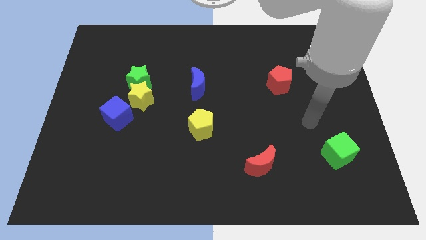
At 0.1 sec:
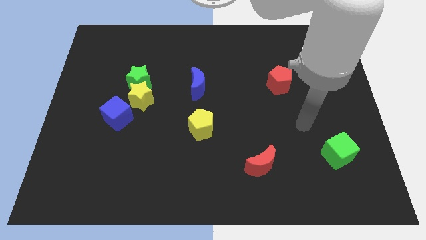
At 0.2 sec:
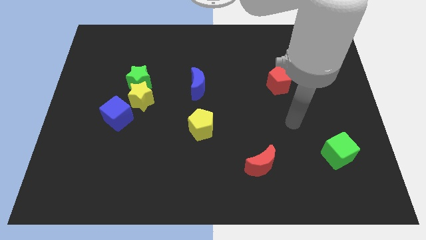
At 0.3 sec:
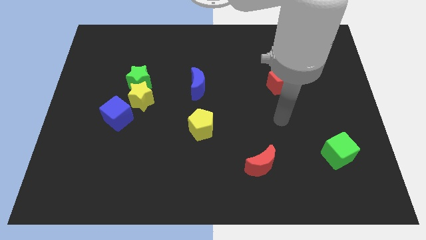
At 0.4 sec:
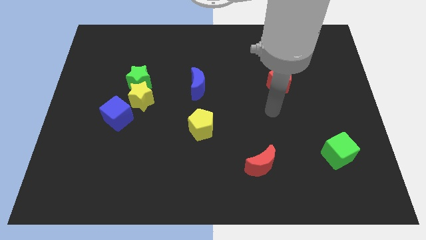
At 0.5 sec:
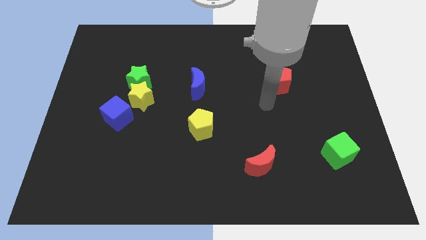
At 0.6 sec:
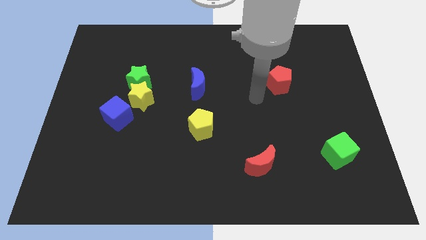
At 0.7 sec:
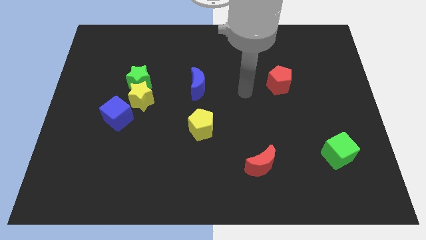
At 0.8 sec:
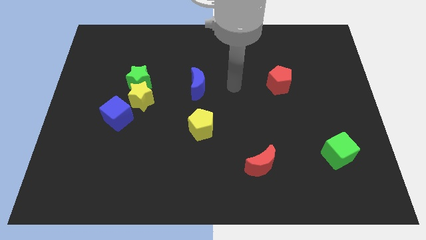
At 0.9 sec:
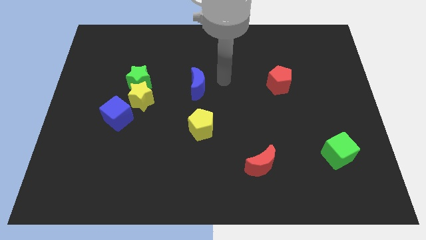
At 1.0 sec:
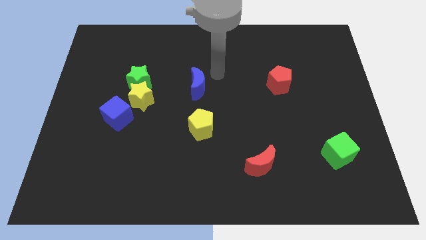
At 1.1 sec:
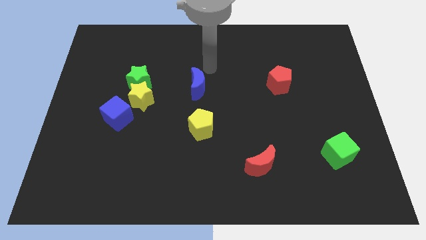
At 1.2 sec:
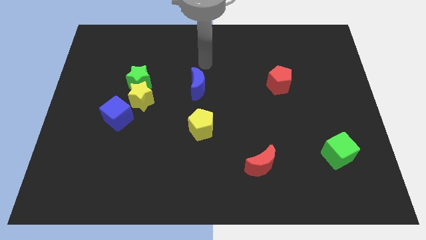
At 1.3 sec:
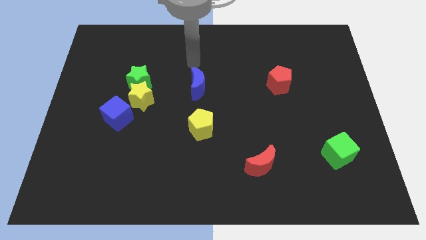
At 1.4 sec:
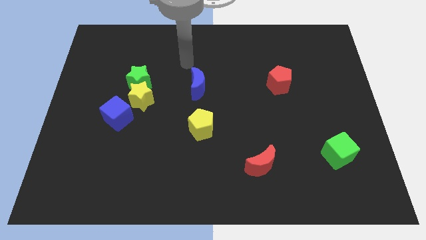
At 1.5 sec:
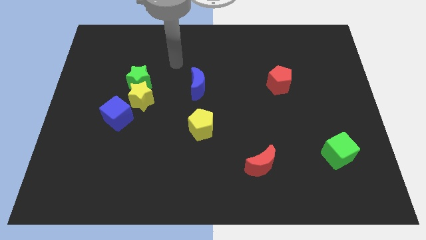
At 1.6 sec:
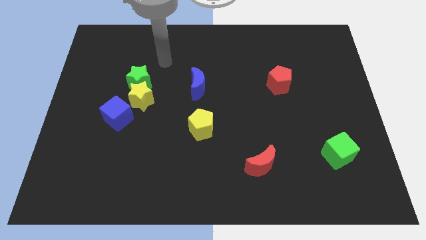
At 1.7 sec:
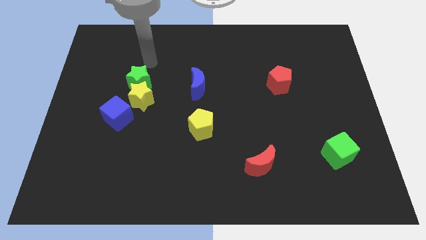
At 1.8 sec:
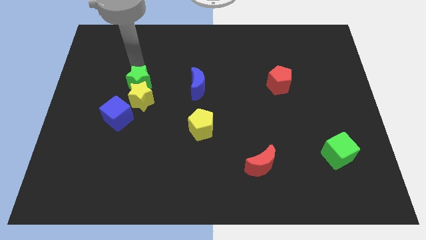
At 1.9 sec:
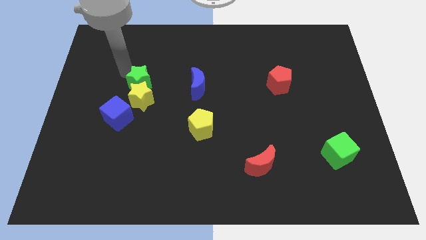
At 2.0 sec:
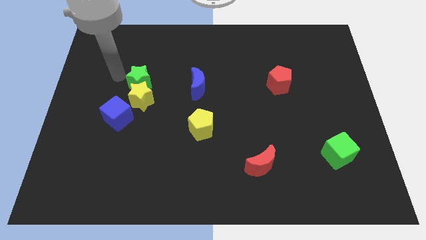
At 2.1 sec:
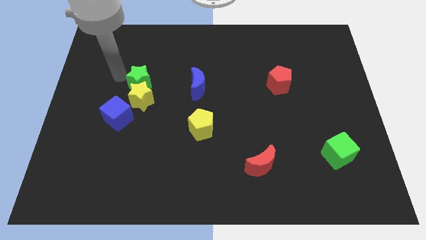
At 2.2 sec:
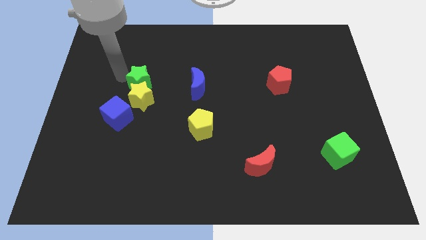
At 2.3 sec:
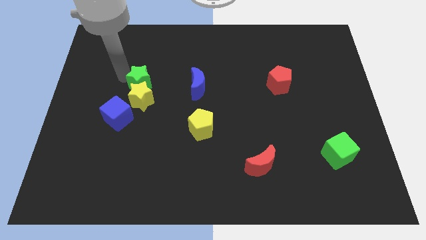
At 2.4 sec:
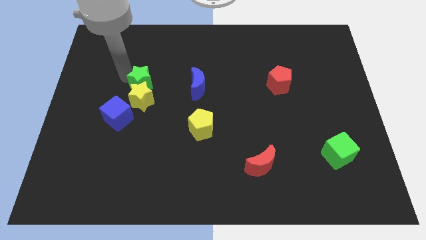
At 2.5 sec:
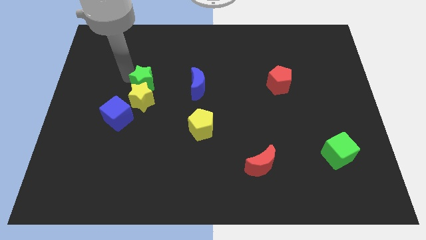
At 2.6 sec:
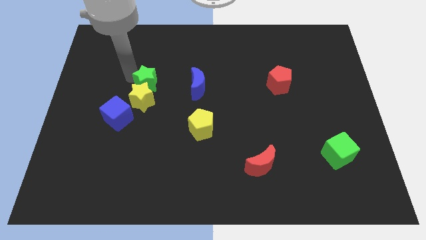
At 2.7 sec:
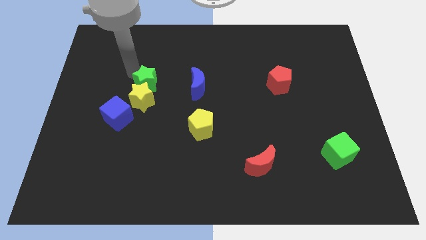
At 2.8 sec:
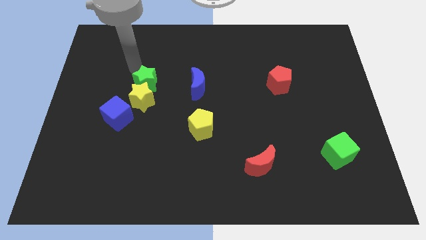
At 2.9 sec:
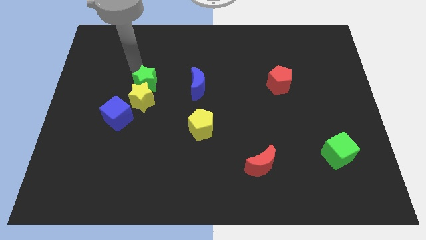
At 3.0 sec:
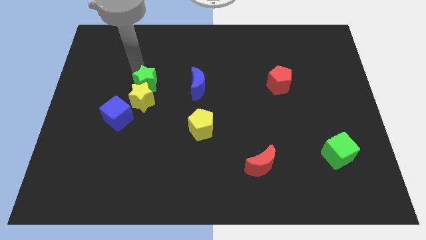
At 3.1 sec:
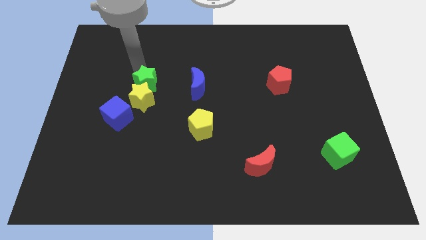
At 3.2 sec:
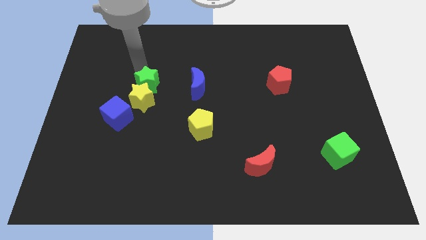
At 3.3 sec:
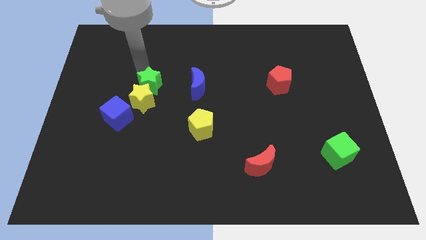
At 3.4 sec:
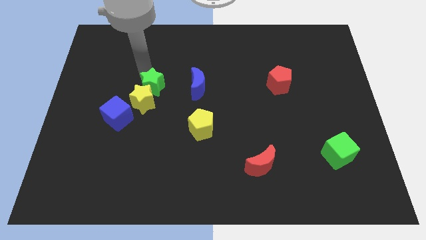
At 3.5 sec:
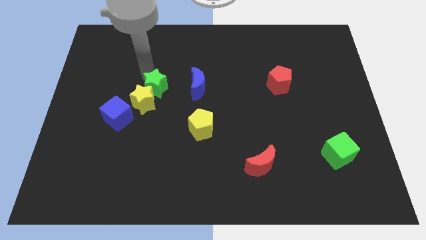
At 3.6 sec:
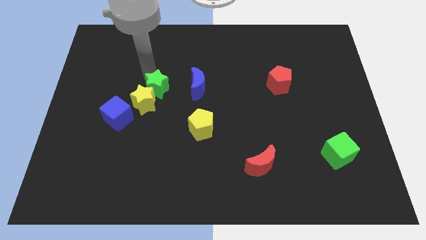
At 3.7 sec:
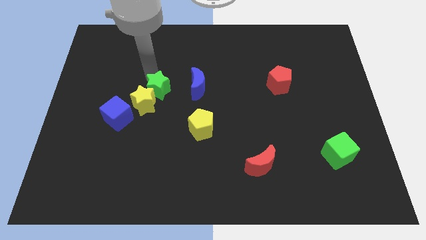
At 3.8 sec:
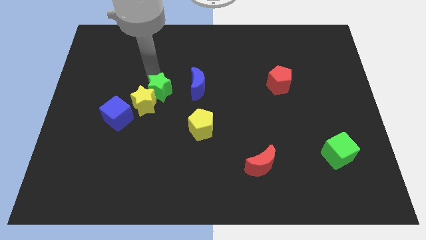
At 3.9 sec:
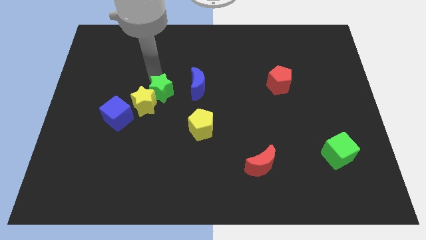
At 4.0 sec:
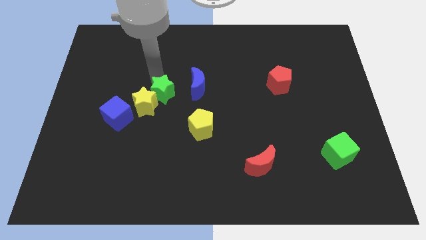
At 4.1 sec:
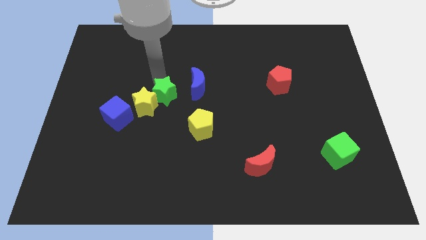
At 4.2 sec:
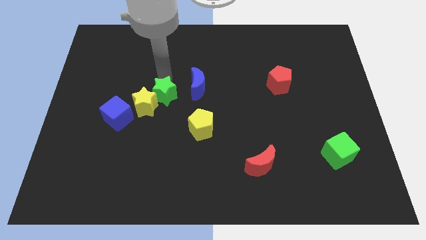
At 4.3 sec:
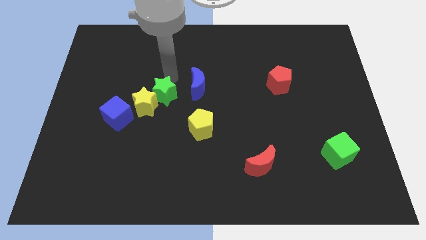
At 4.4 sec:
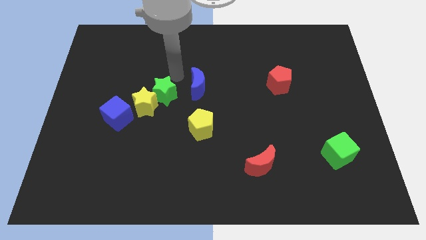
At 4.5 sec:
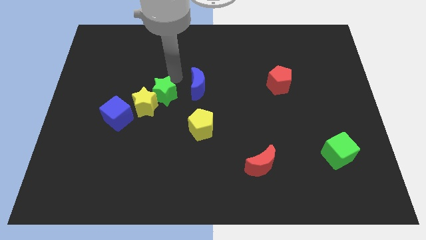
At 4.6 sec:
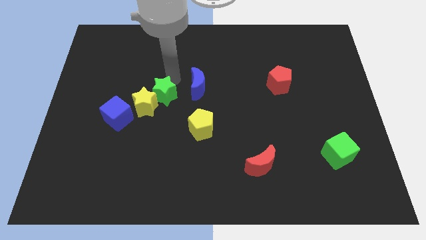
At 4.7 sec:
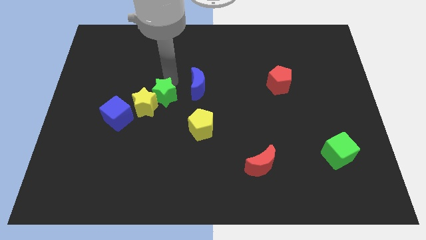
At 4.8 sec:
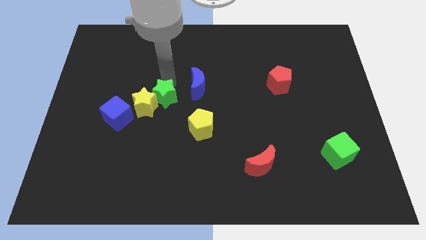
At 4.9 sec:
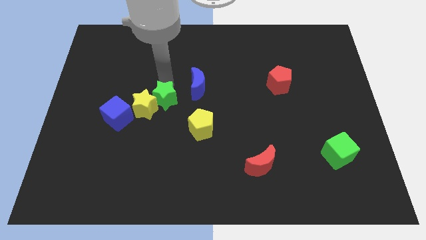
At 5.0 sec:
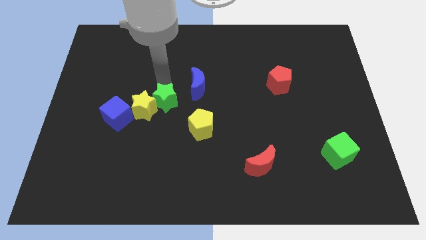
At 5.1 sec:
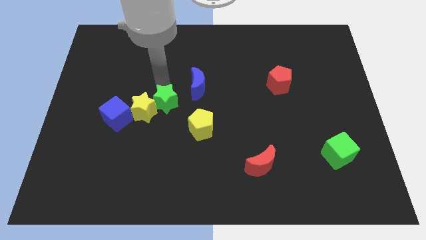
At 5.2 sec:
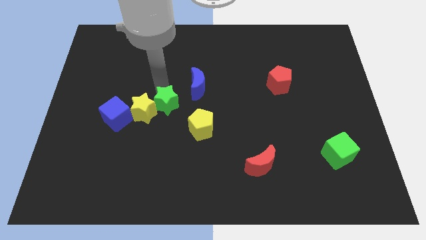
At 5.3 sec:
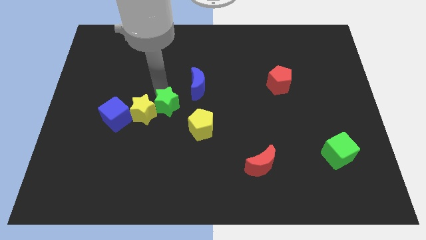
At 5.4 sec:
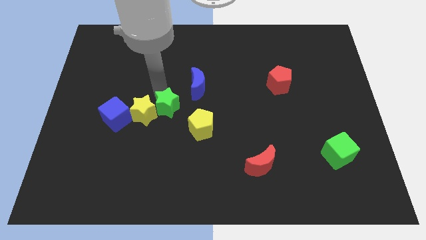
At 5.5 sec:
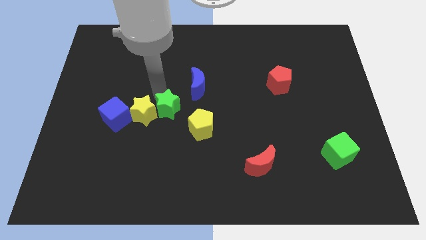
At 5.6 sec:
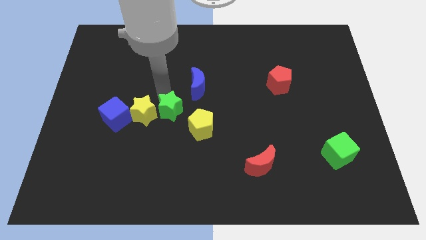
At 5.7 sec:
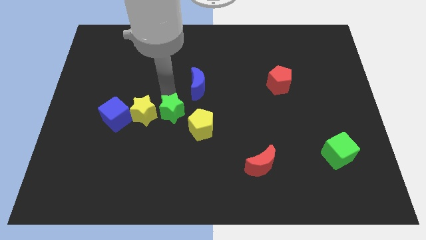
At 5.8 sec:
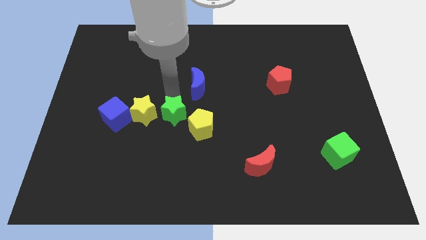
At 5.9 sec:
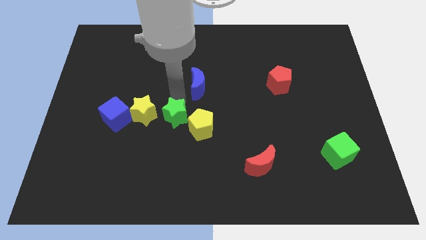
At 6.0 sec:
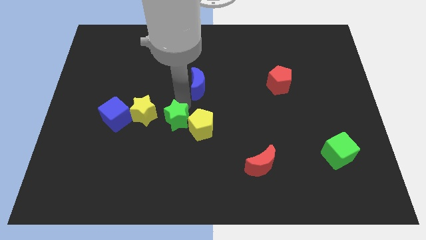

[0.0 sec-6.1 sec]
slide the green star downwards a little

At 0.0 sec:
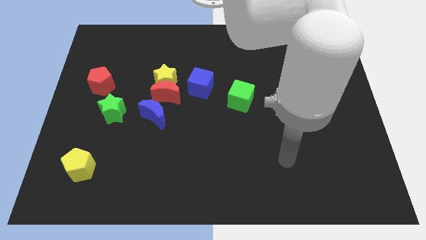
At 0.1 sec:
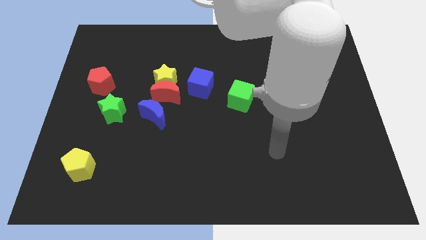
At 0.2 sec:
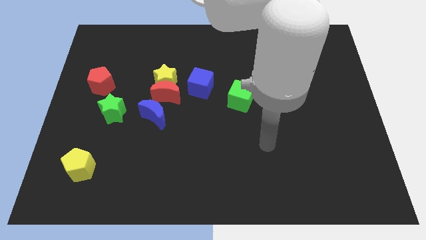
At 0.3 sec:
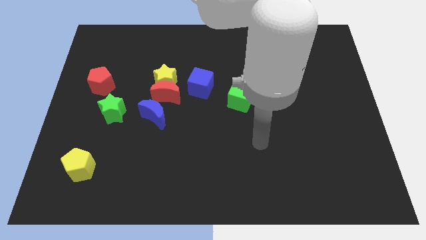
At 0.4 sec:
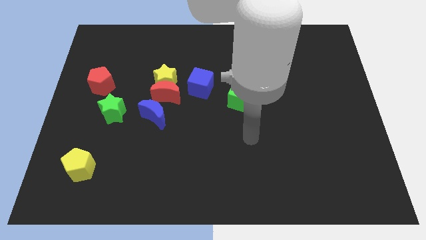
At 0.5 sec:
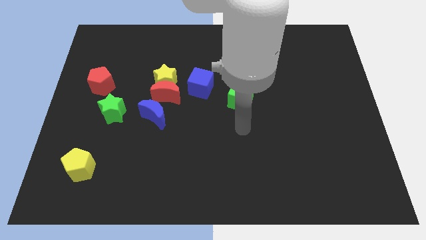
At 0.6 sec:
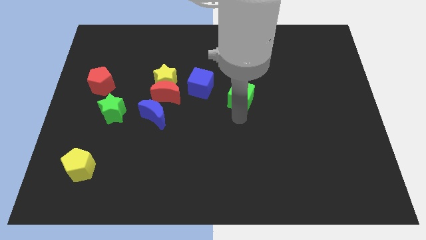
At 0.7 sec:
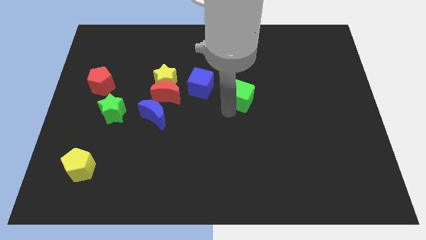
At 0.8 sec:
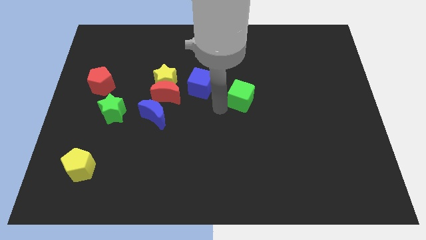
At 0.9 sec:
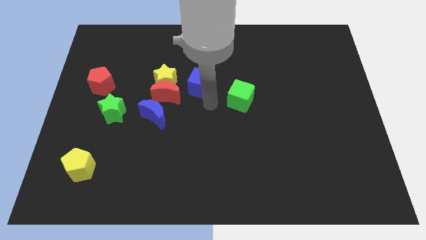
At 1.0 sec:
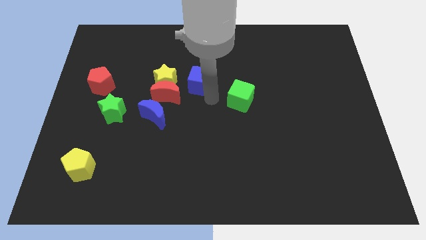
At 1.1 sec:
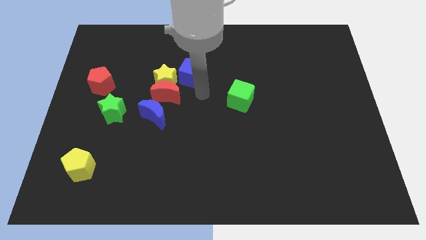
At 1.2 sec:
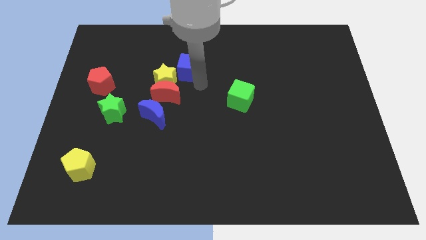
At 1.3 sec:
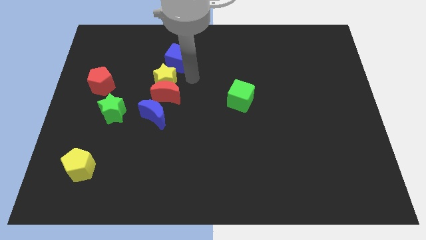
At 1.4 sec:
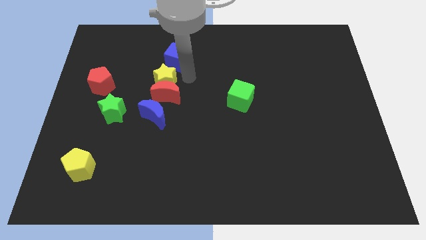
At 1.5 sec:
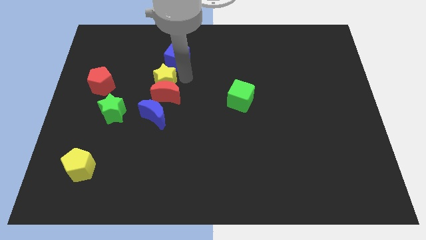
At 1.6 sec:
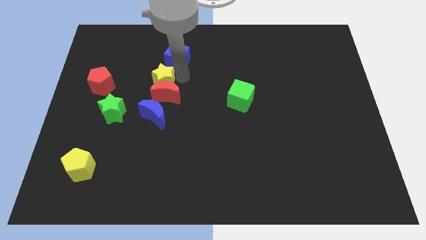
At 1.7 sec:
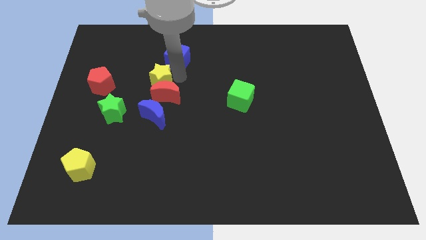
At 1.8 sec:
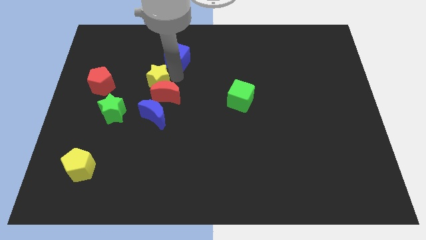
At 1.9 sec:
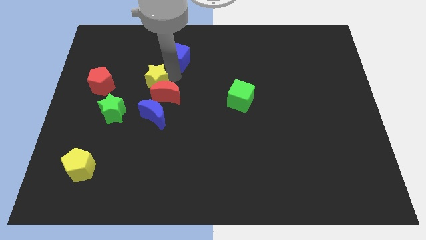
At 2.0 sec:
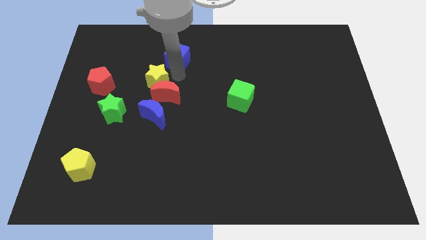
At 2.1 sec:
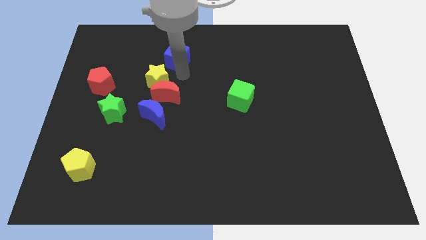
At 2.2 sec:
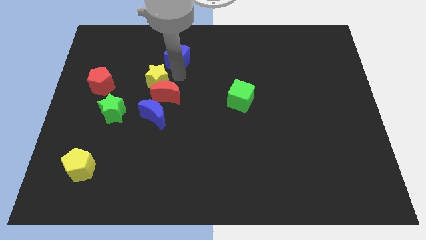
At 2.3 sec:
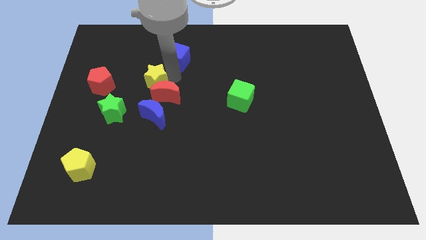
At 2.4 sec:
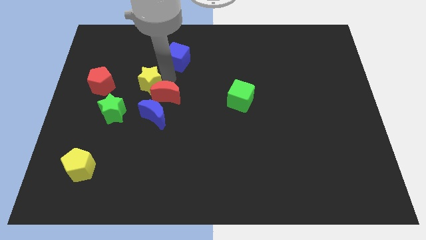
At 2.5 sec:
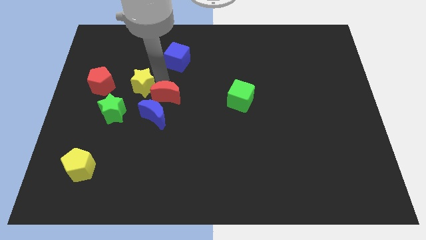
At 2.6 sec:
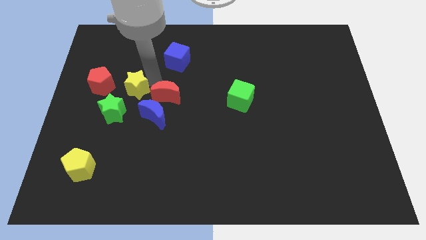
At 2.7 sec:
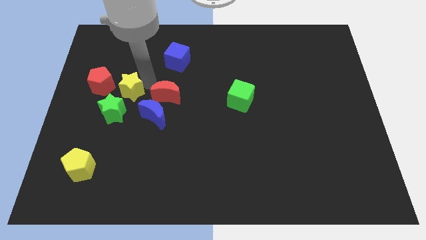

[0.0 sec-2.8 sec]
slightly move the yellow star downwards and to the left diagonally
